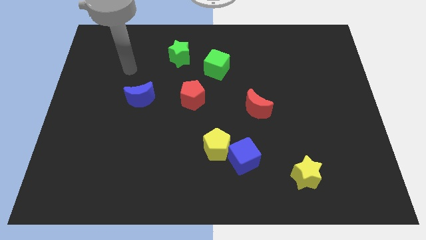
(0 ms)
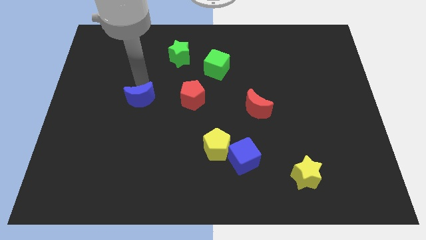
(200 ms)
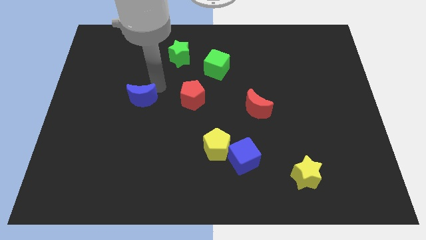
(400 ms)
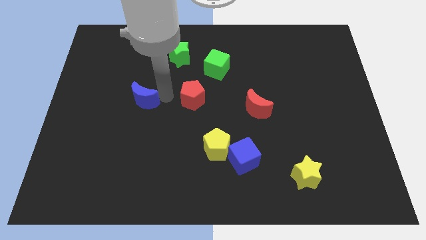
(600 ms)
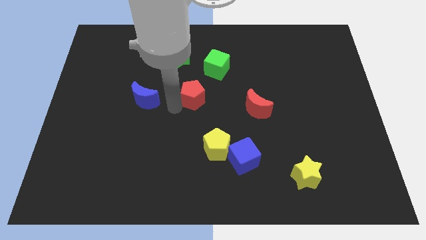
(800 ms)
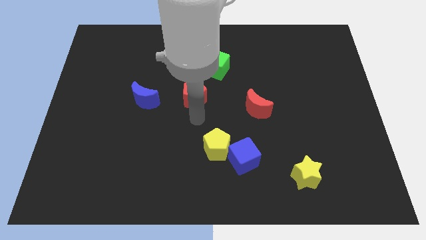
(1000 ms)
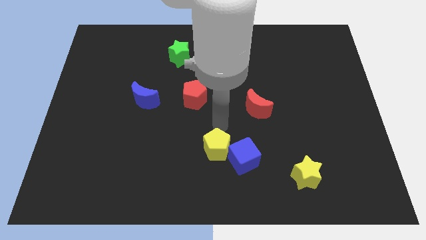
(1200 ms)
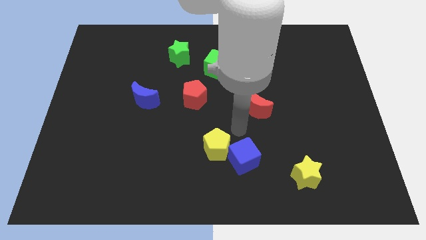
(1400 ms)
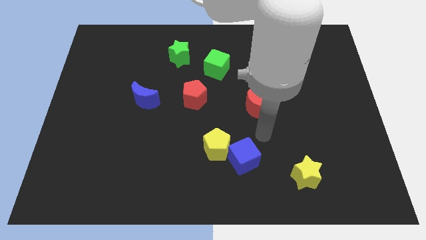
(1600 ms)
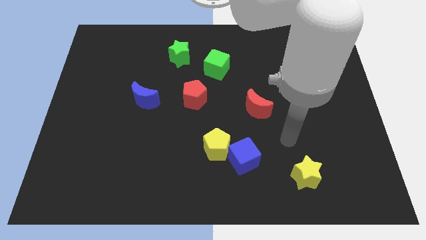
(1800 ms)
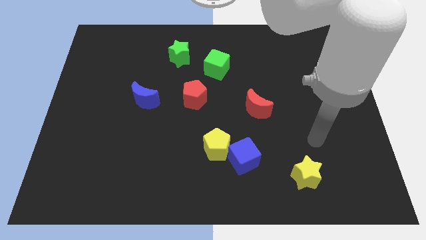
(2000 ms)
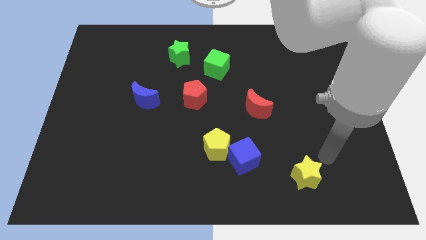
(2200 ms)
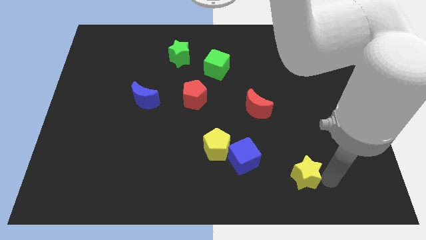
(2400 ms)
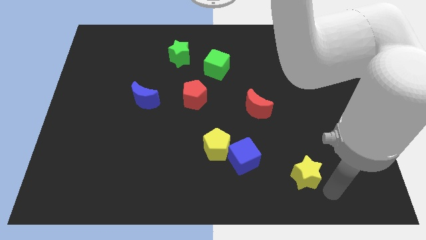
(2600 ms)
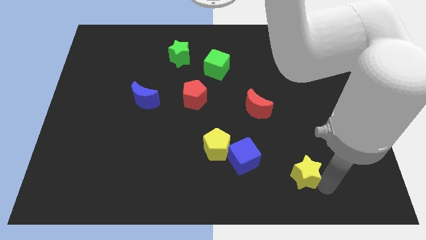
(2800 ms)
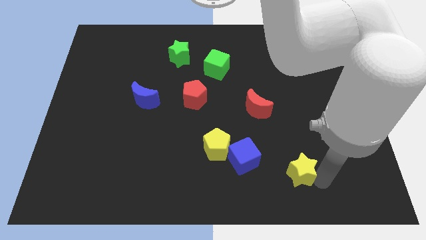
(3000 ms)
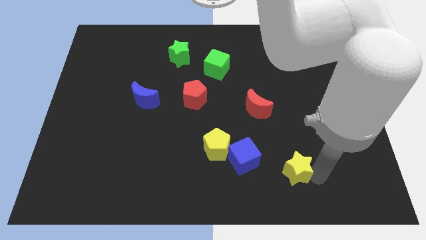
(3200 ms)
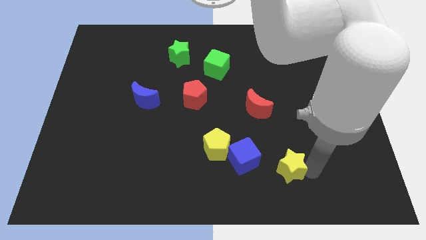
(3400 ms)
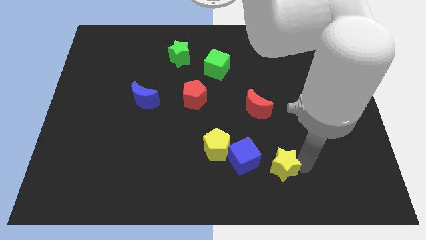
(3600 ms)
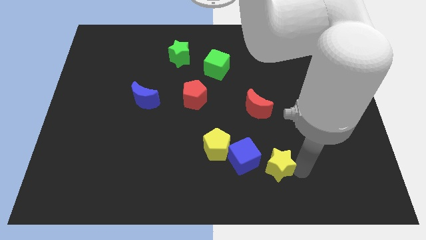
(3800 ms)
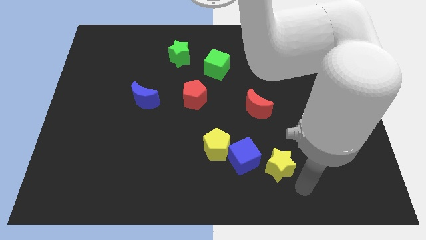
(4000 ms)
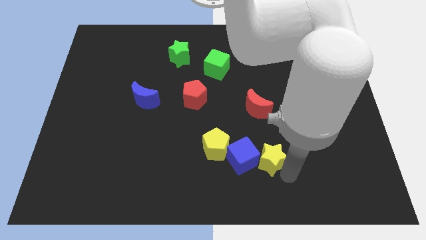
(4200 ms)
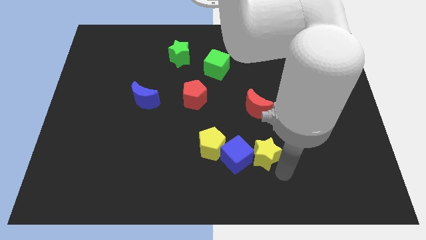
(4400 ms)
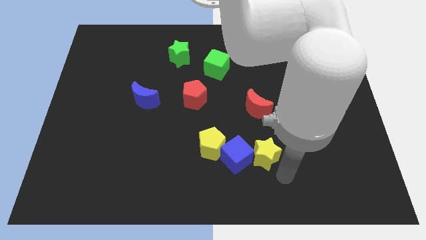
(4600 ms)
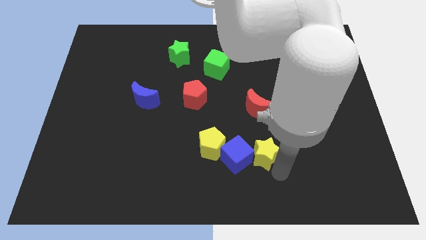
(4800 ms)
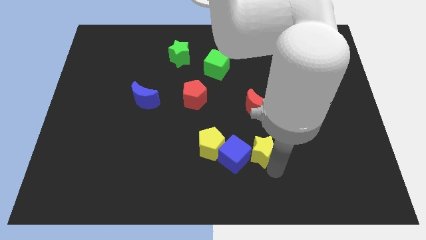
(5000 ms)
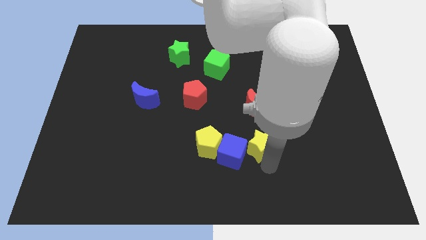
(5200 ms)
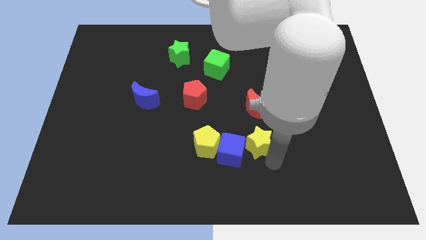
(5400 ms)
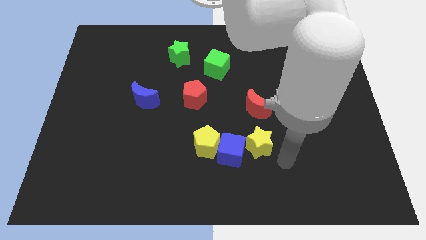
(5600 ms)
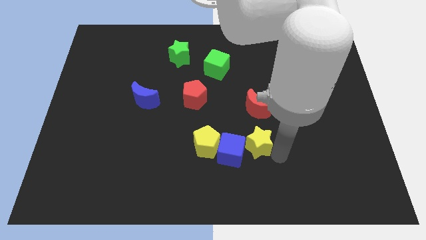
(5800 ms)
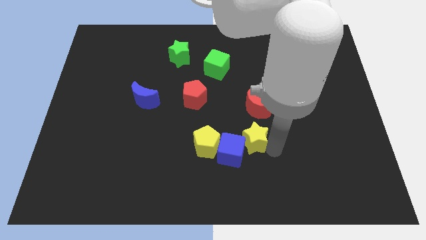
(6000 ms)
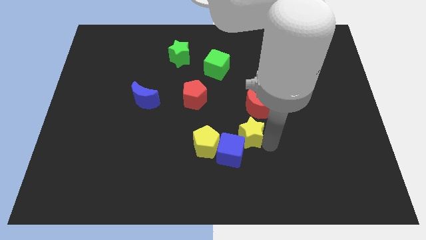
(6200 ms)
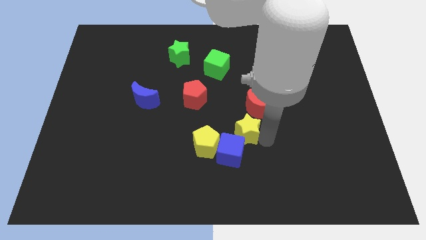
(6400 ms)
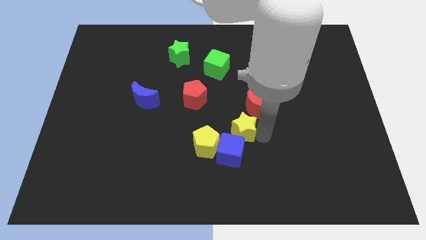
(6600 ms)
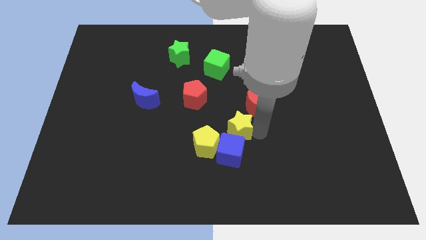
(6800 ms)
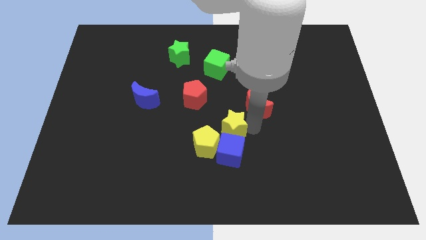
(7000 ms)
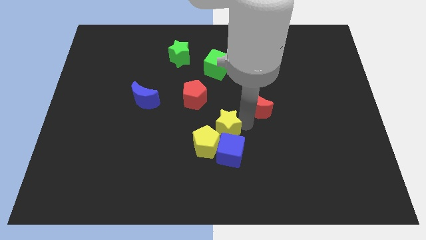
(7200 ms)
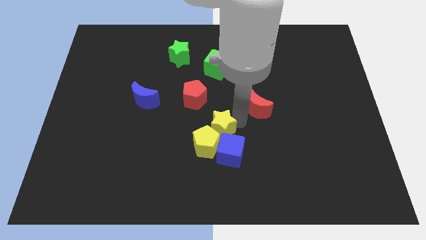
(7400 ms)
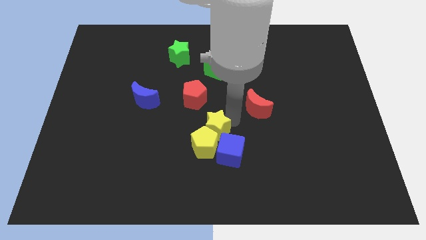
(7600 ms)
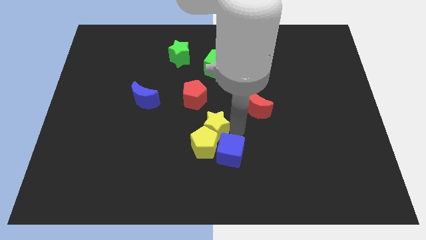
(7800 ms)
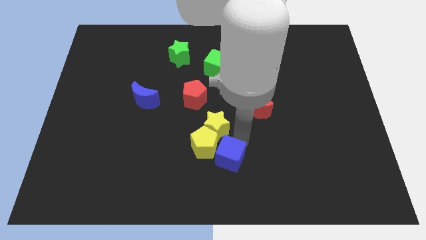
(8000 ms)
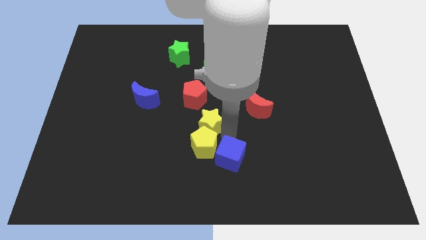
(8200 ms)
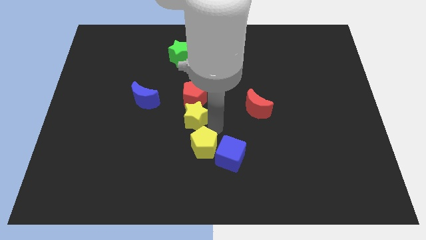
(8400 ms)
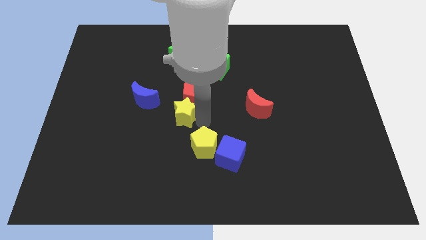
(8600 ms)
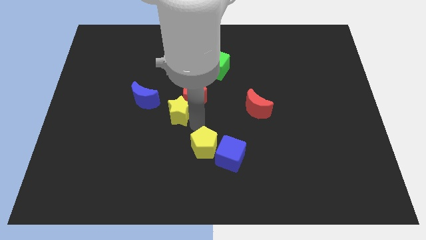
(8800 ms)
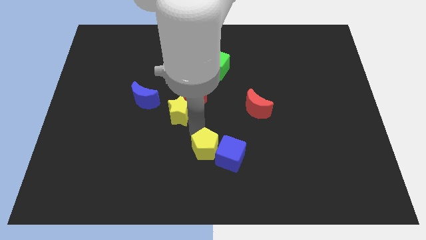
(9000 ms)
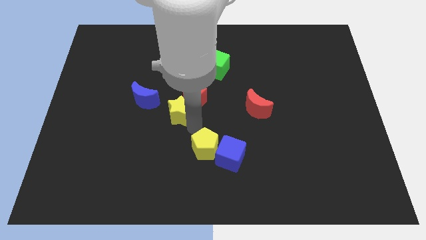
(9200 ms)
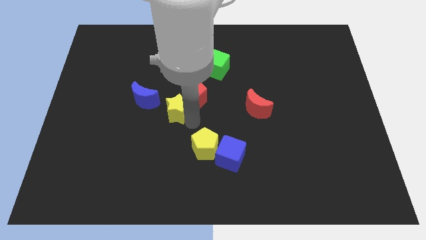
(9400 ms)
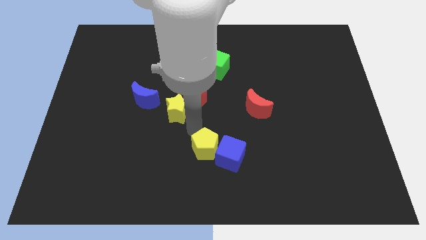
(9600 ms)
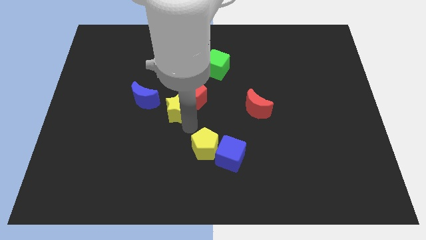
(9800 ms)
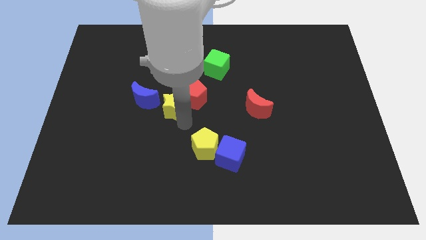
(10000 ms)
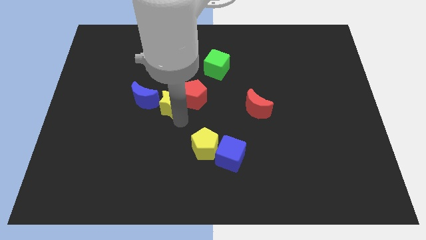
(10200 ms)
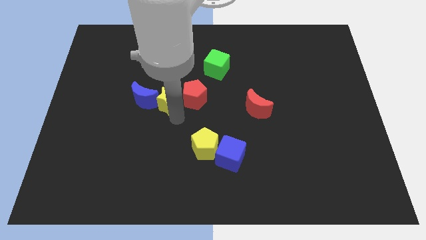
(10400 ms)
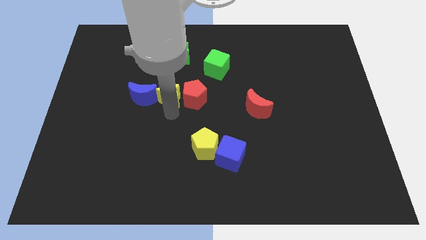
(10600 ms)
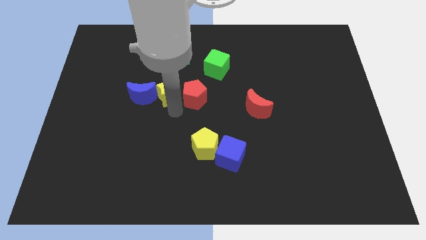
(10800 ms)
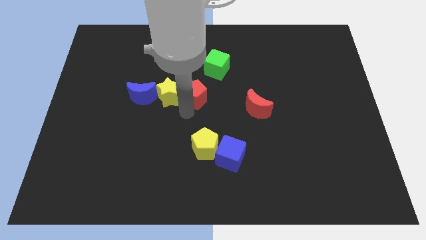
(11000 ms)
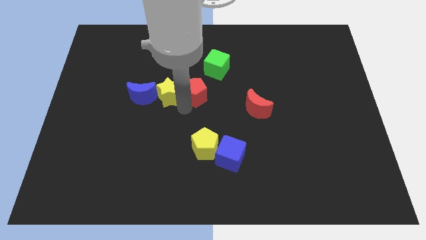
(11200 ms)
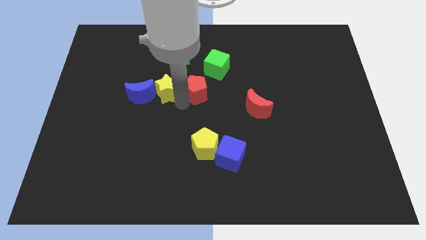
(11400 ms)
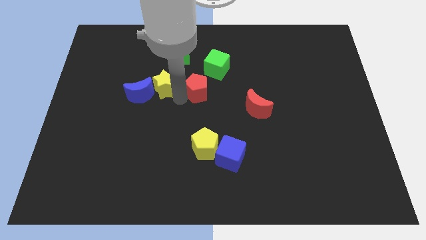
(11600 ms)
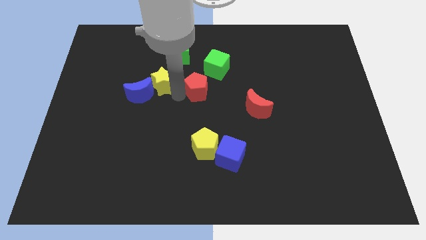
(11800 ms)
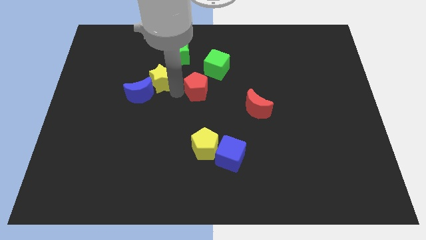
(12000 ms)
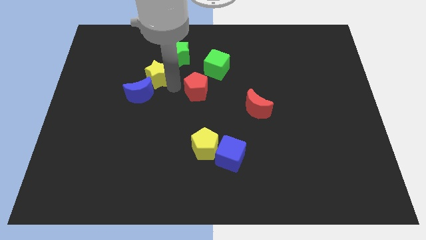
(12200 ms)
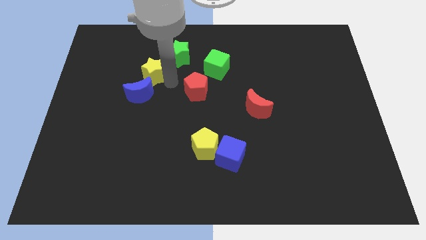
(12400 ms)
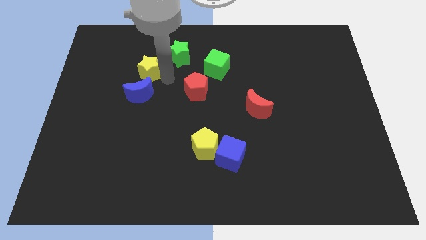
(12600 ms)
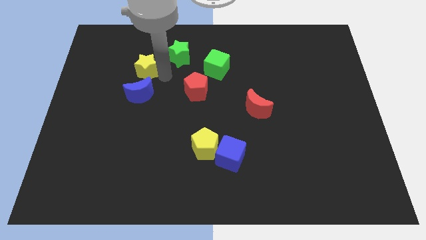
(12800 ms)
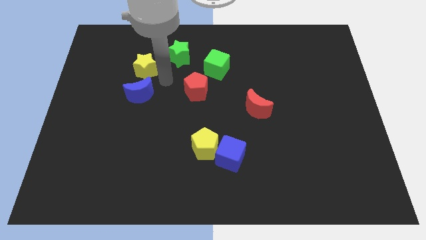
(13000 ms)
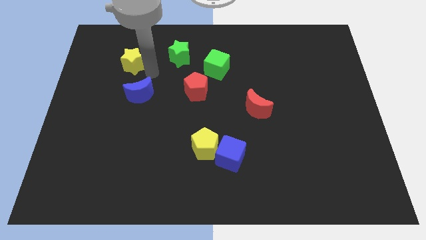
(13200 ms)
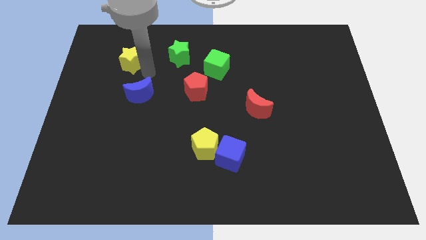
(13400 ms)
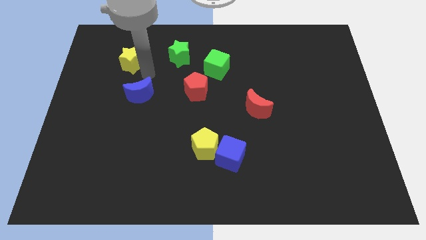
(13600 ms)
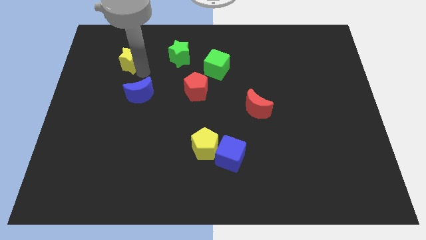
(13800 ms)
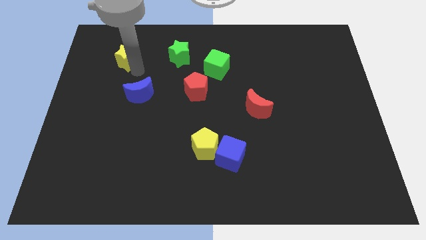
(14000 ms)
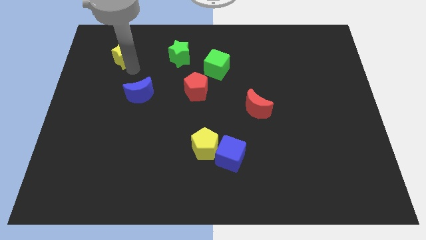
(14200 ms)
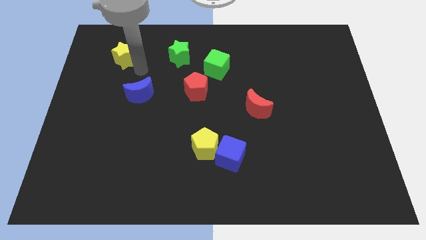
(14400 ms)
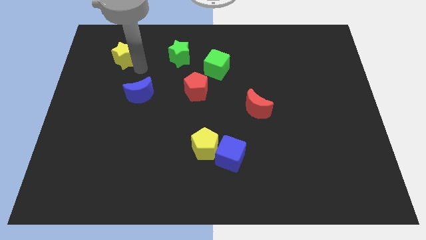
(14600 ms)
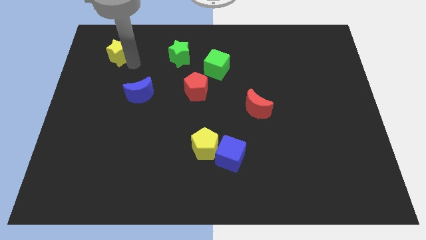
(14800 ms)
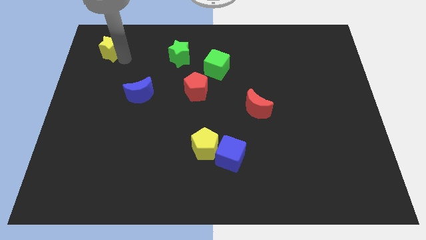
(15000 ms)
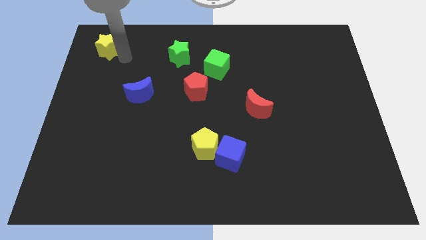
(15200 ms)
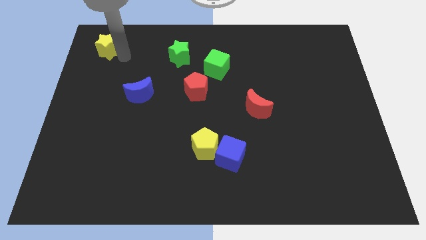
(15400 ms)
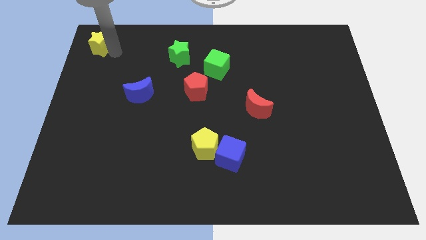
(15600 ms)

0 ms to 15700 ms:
push the yellow star to the top left corner
